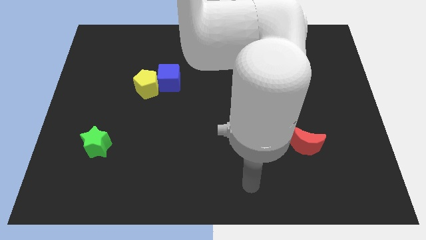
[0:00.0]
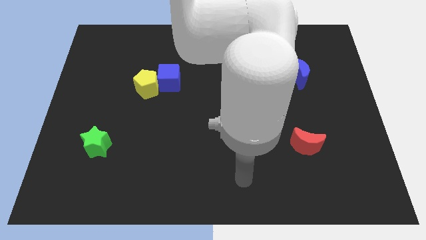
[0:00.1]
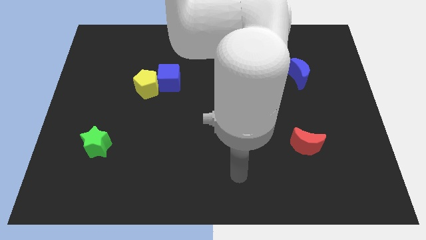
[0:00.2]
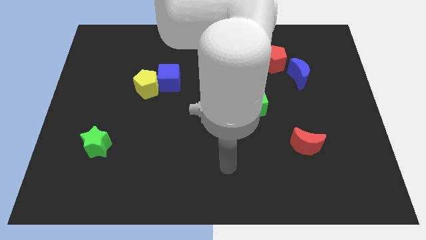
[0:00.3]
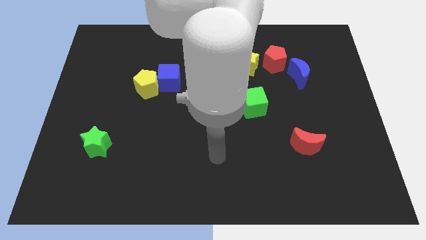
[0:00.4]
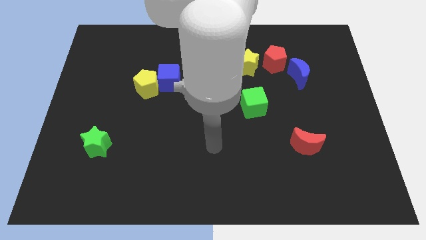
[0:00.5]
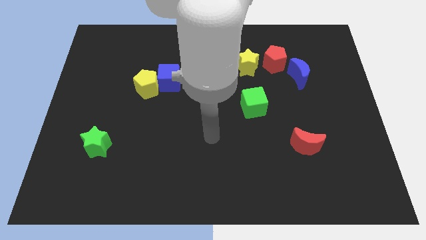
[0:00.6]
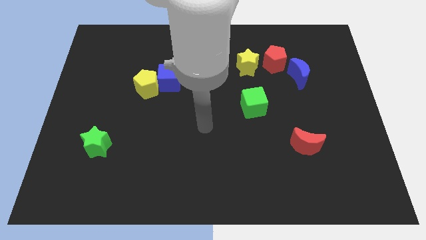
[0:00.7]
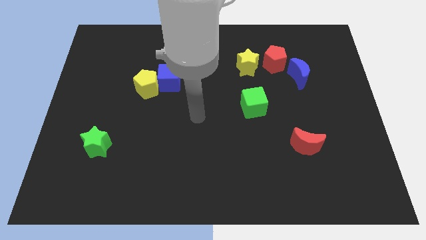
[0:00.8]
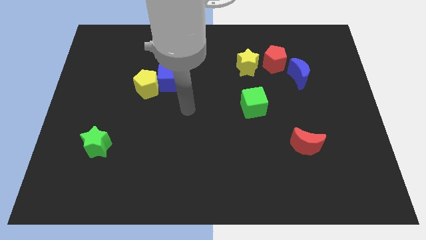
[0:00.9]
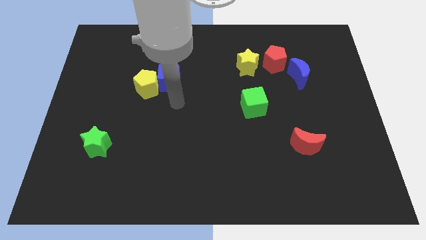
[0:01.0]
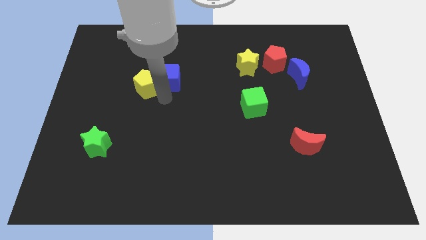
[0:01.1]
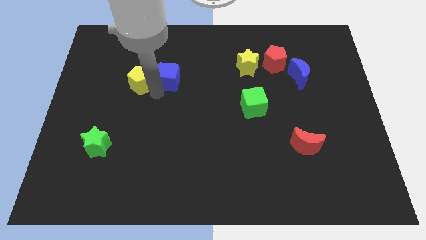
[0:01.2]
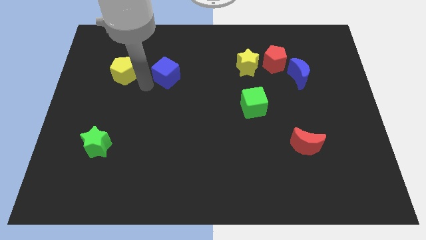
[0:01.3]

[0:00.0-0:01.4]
pull the blue cube apart from the yellow pentagon

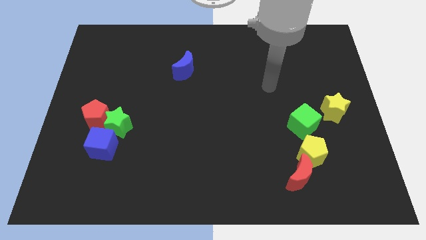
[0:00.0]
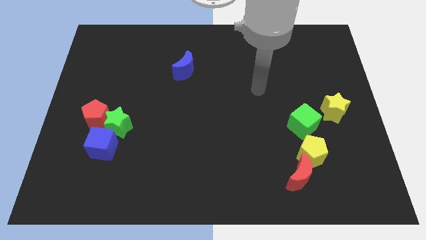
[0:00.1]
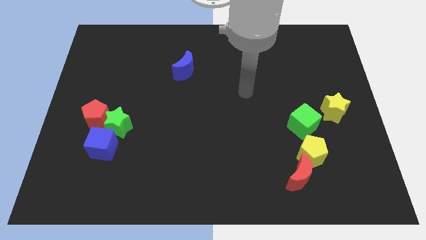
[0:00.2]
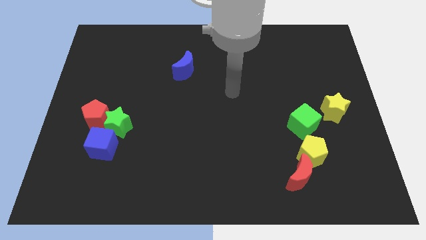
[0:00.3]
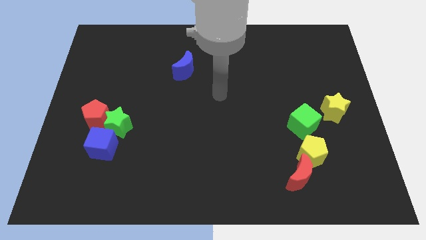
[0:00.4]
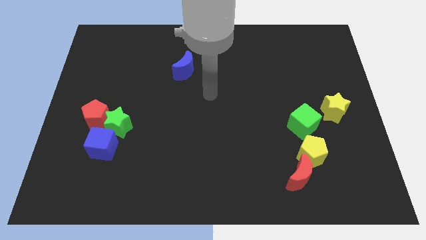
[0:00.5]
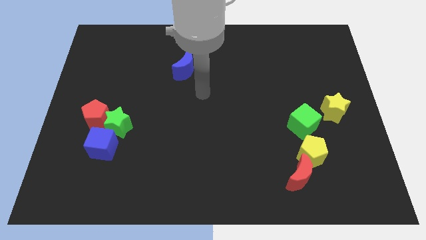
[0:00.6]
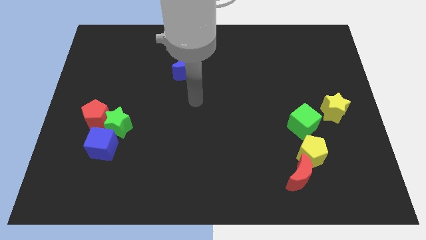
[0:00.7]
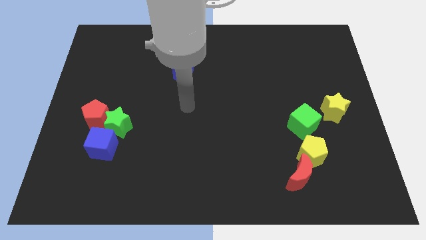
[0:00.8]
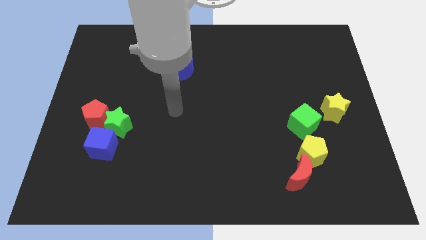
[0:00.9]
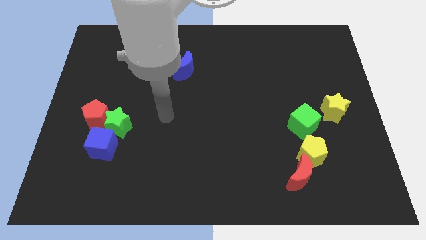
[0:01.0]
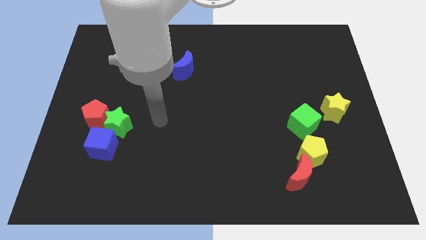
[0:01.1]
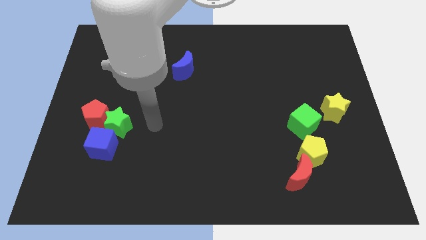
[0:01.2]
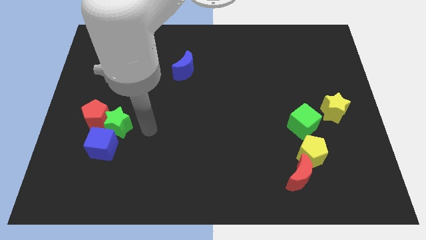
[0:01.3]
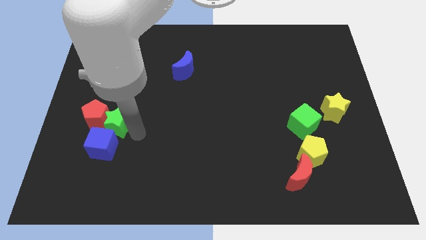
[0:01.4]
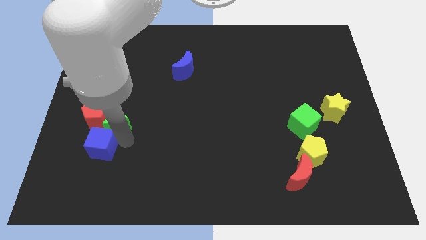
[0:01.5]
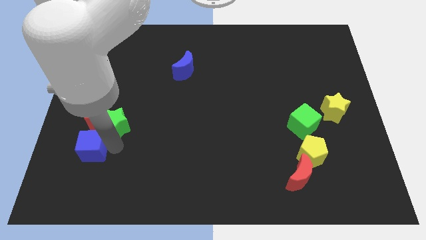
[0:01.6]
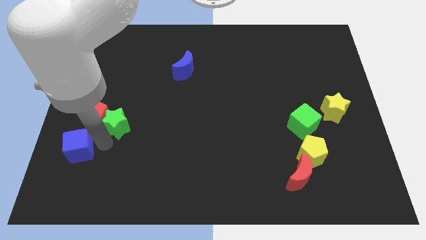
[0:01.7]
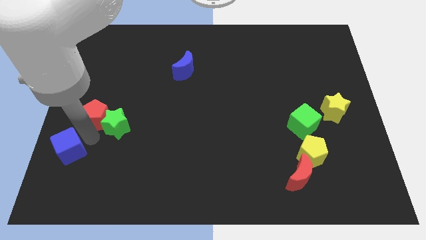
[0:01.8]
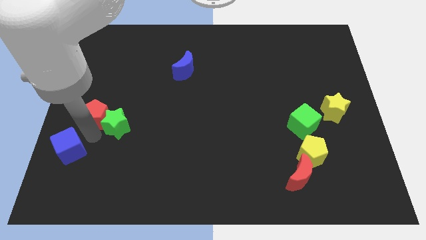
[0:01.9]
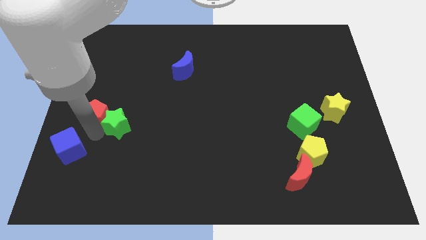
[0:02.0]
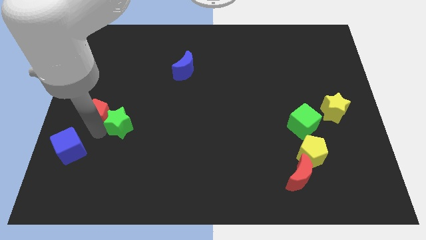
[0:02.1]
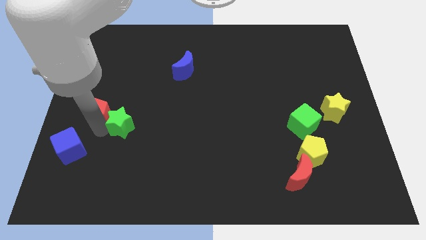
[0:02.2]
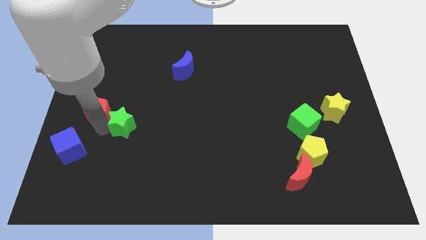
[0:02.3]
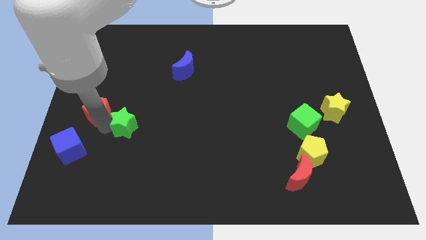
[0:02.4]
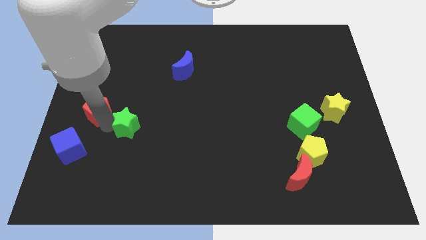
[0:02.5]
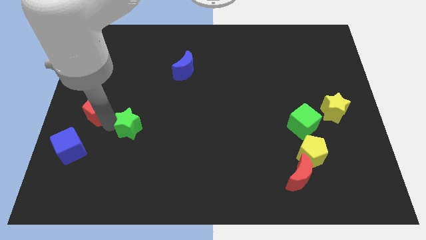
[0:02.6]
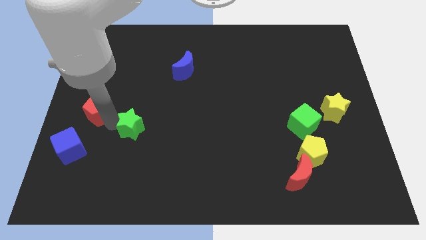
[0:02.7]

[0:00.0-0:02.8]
pull the green star apart from the red pentagon and blue cube

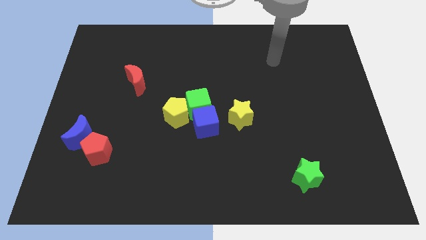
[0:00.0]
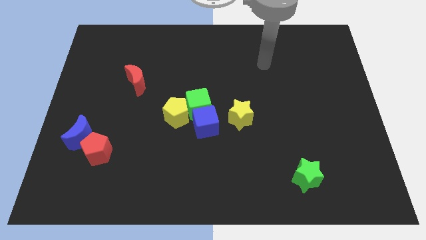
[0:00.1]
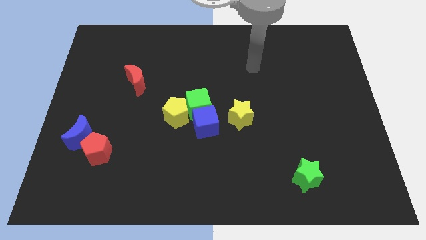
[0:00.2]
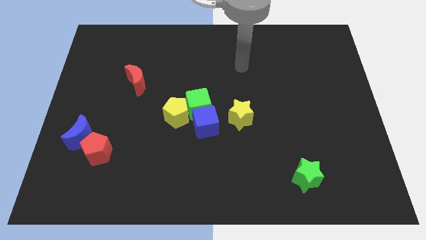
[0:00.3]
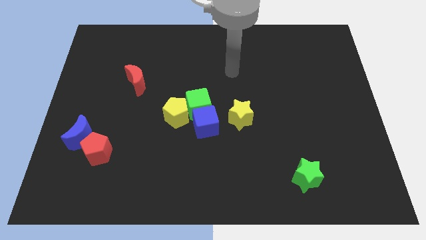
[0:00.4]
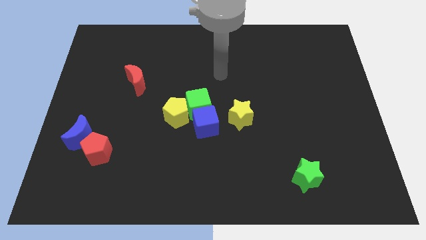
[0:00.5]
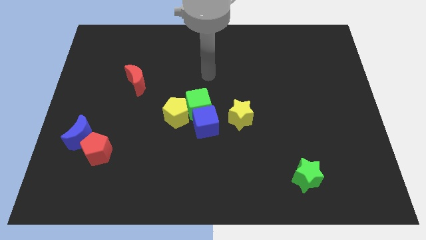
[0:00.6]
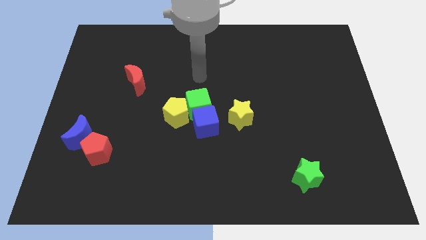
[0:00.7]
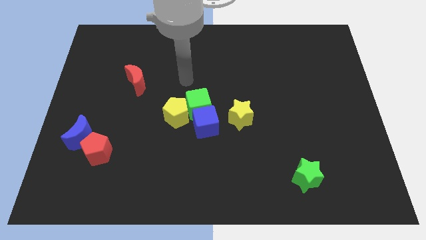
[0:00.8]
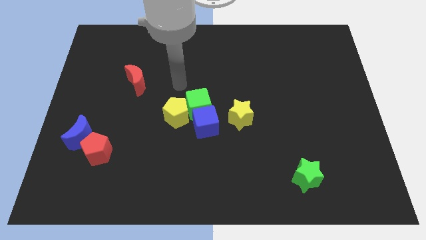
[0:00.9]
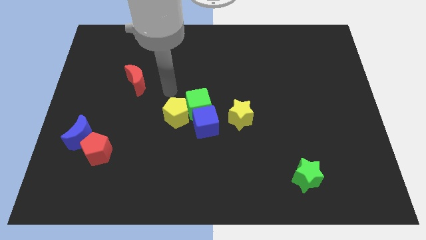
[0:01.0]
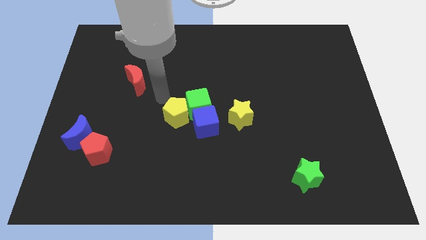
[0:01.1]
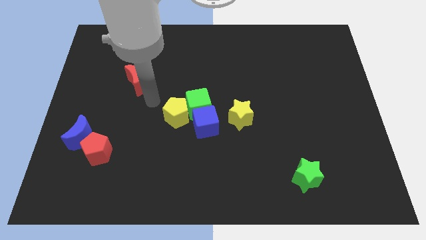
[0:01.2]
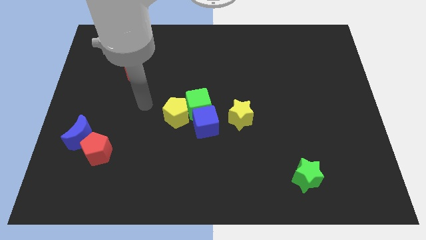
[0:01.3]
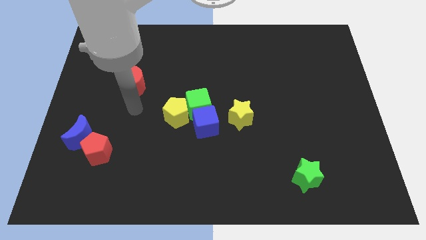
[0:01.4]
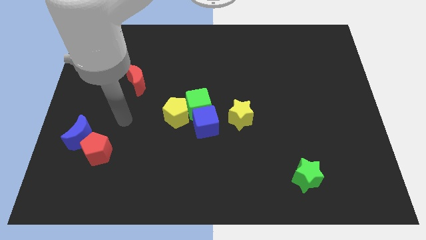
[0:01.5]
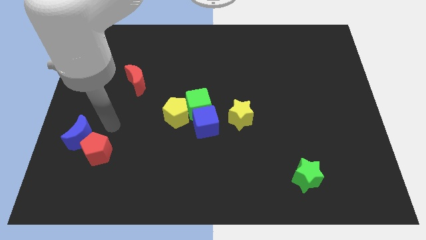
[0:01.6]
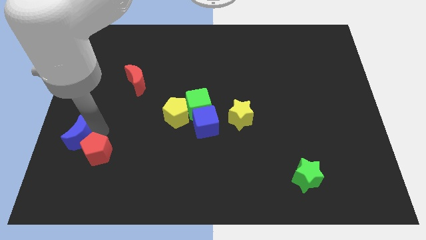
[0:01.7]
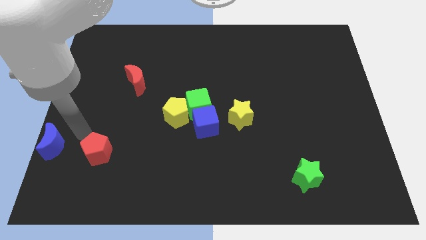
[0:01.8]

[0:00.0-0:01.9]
move the red pentagon away from the blue moon

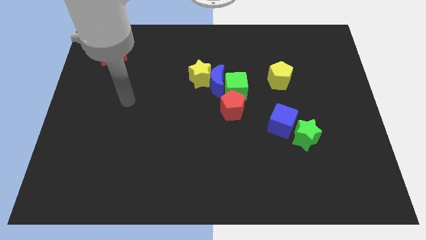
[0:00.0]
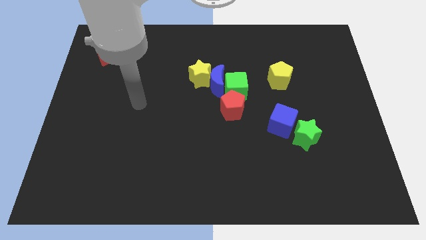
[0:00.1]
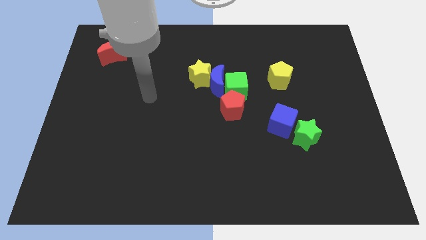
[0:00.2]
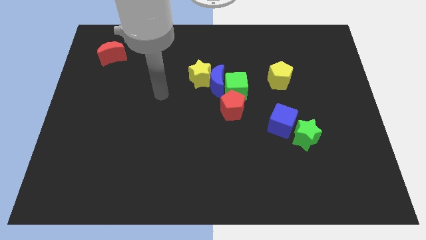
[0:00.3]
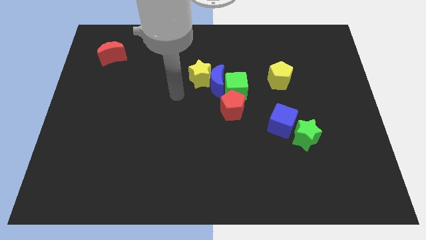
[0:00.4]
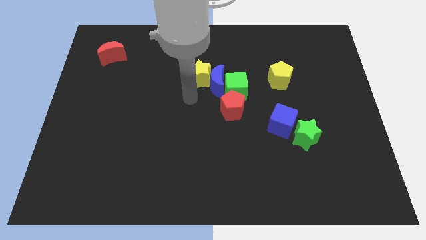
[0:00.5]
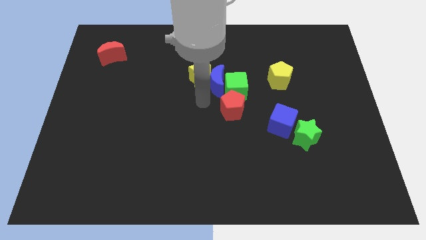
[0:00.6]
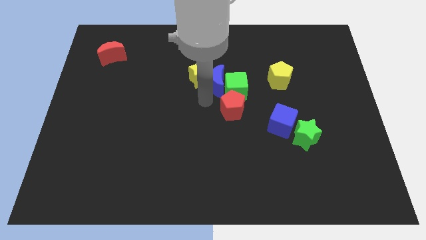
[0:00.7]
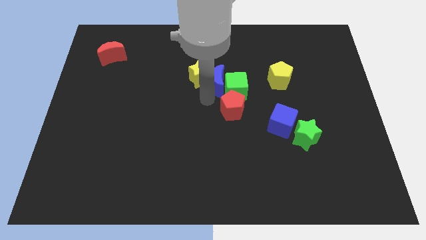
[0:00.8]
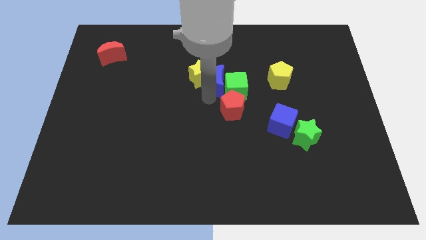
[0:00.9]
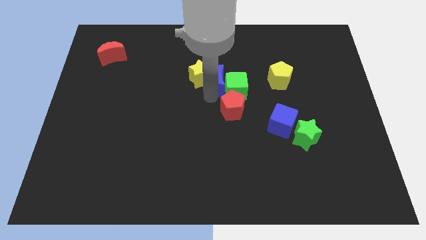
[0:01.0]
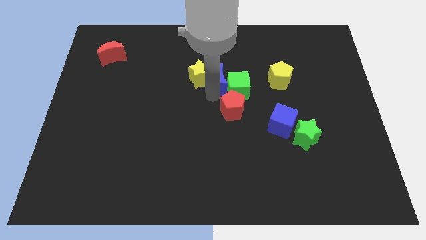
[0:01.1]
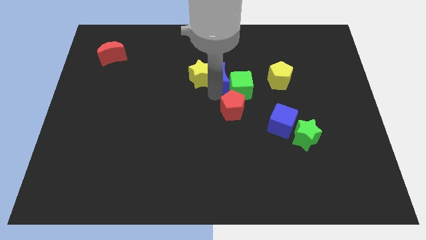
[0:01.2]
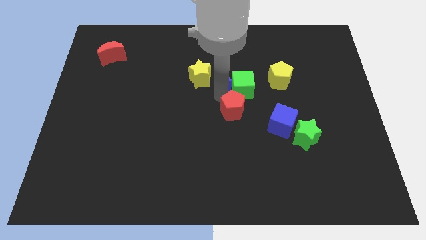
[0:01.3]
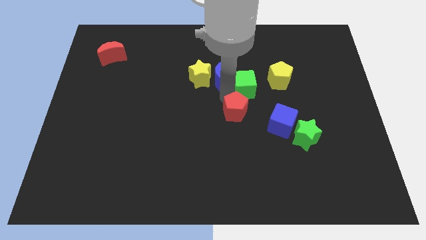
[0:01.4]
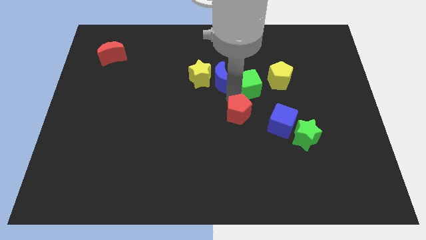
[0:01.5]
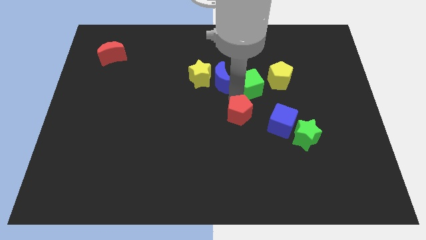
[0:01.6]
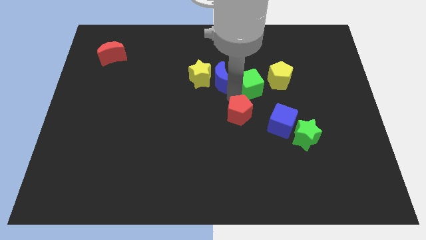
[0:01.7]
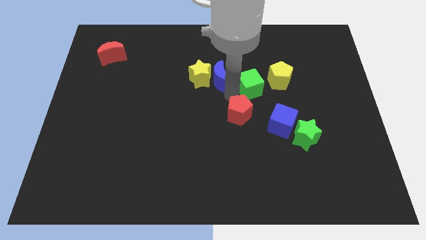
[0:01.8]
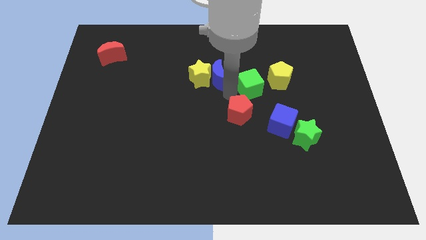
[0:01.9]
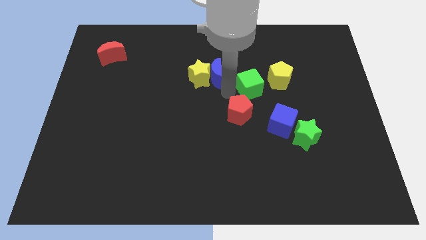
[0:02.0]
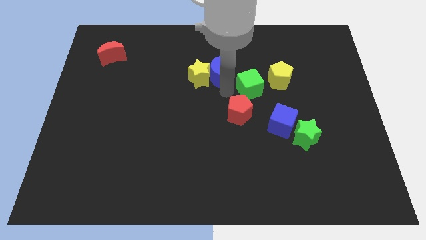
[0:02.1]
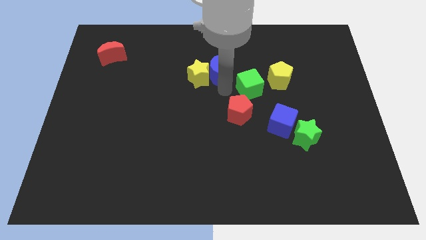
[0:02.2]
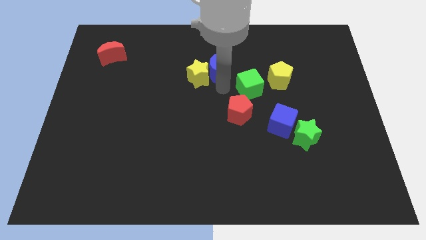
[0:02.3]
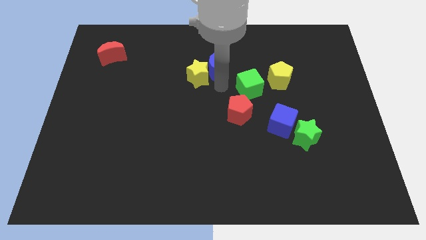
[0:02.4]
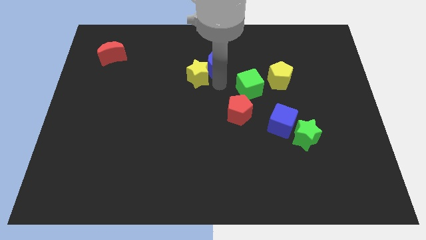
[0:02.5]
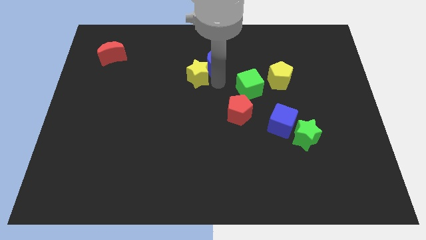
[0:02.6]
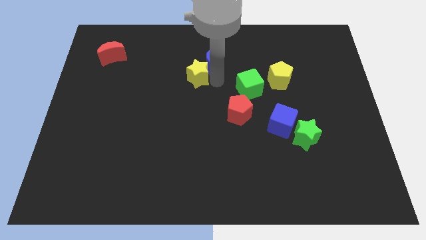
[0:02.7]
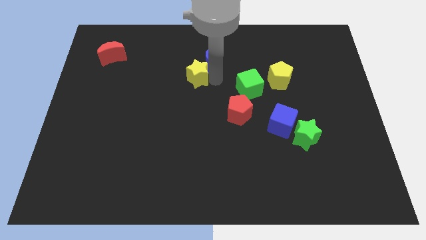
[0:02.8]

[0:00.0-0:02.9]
pull the blue moon apart from the group

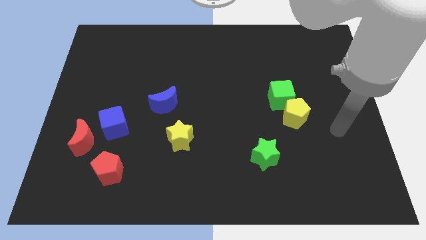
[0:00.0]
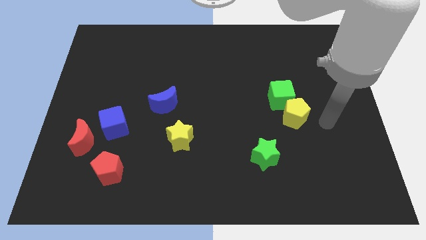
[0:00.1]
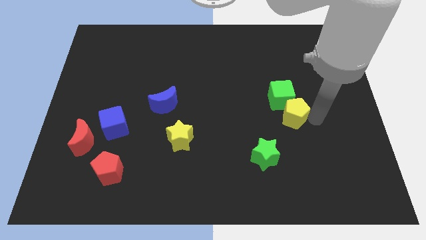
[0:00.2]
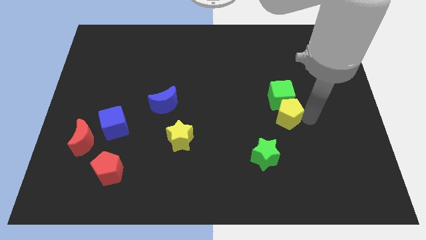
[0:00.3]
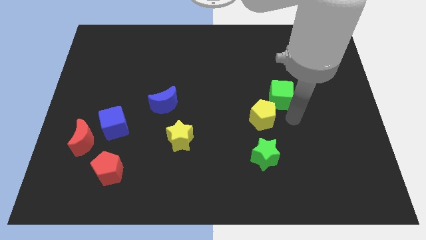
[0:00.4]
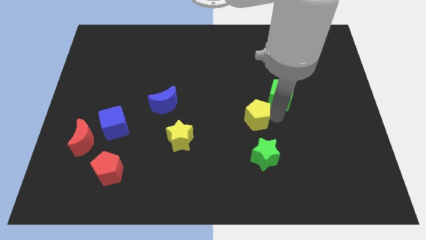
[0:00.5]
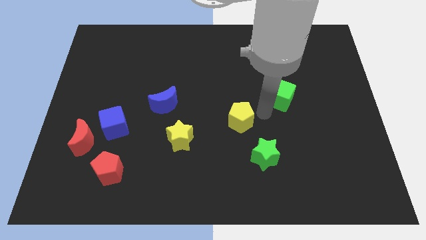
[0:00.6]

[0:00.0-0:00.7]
separate the green cube from the yellow pentagon
